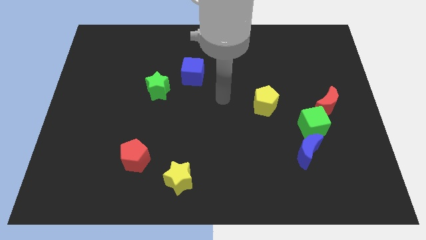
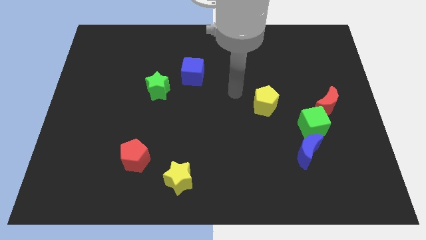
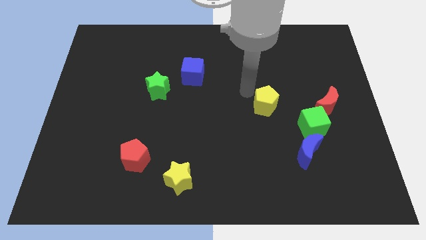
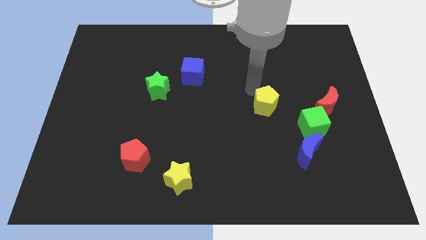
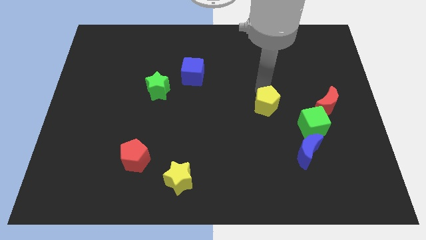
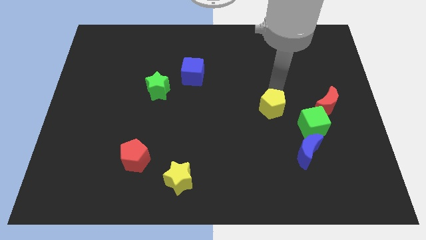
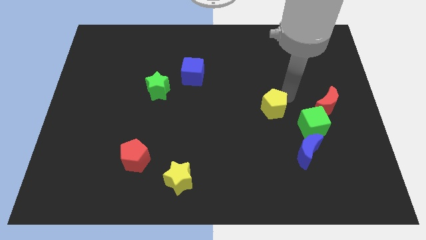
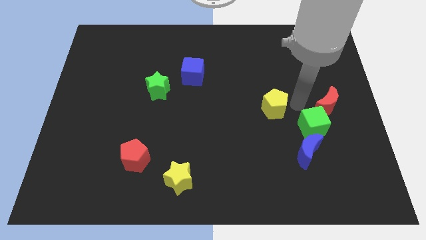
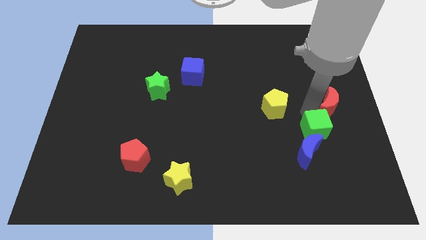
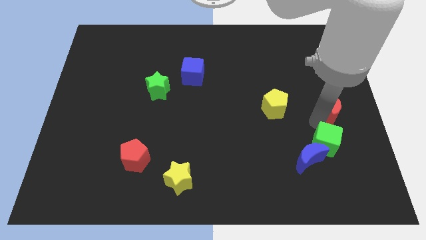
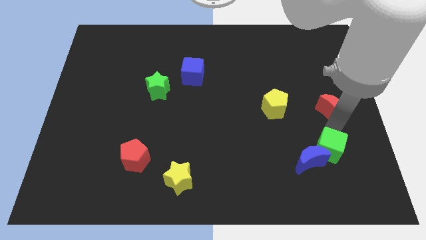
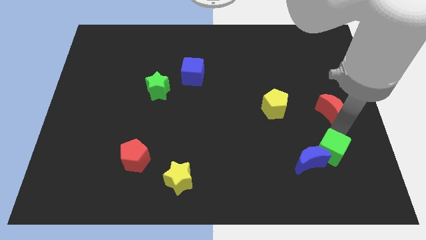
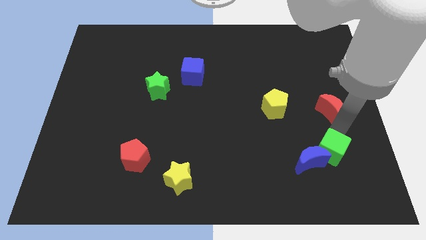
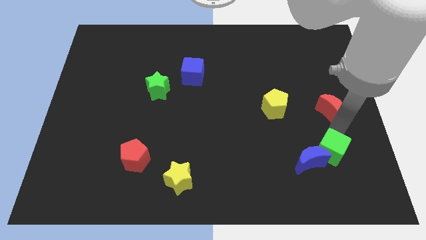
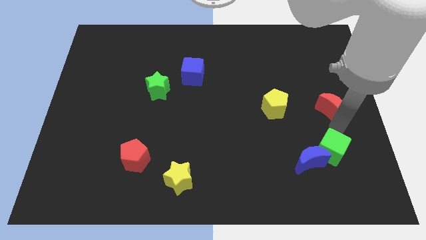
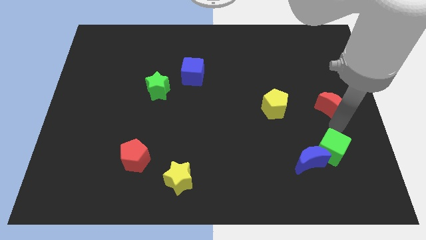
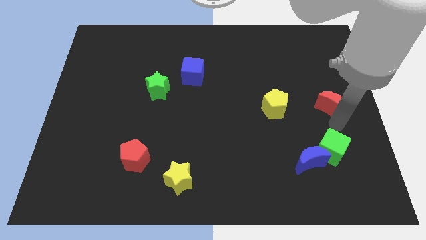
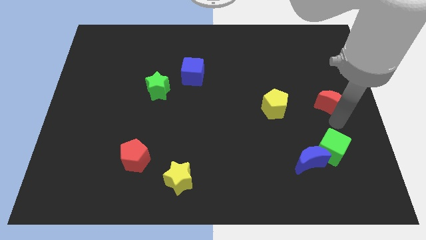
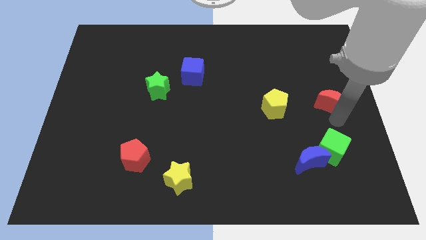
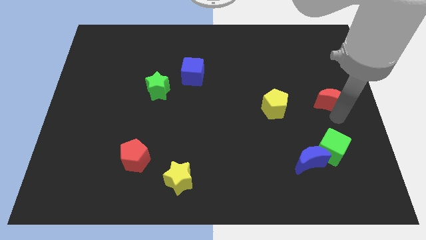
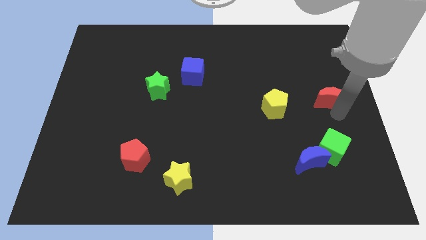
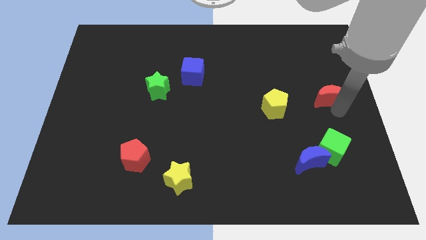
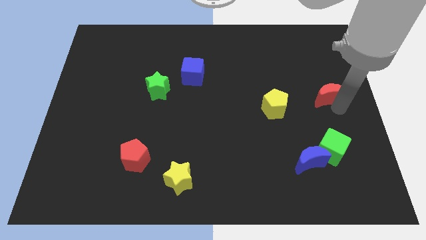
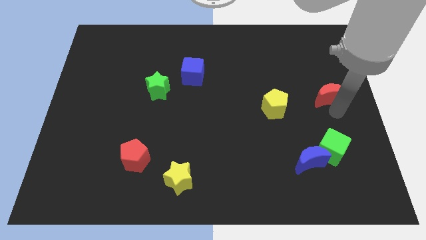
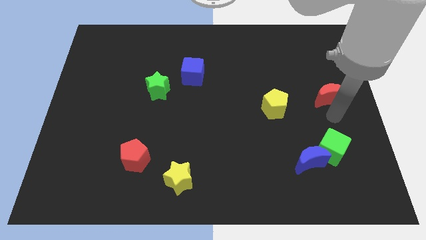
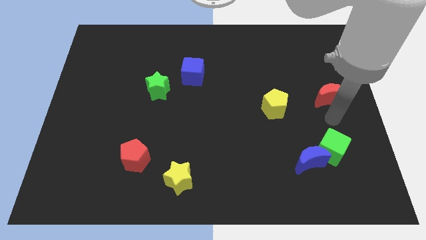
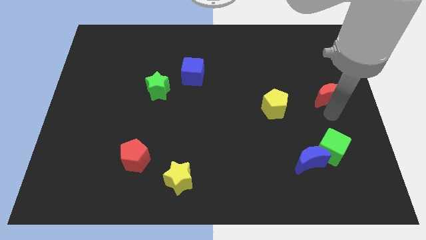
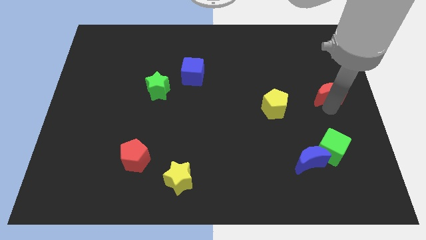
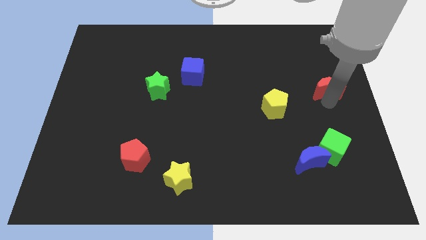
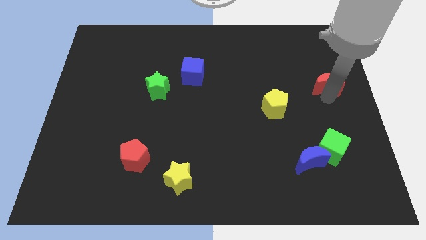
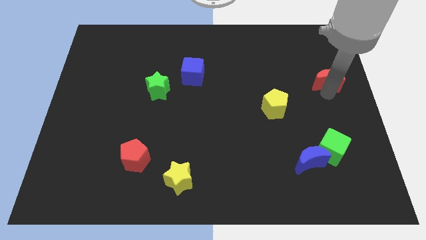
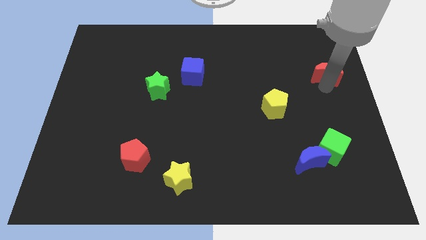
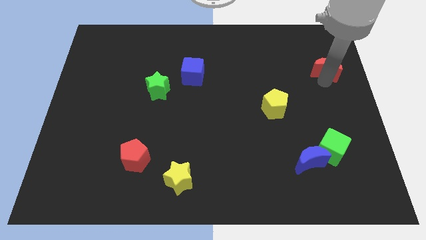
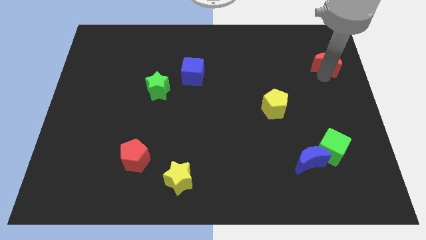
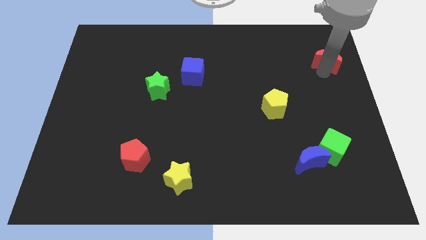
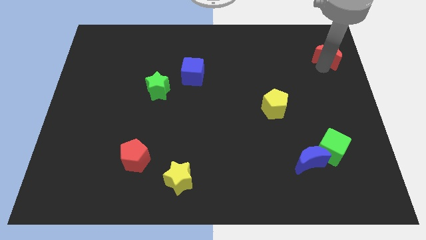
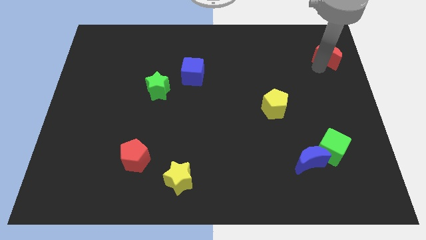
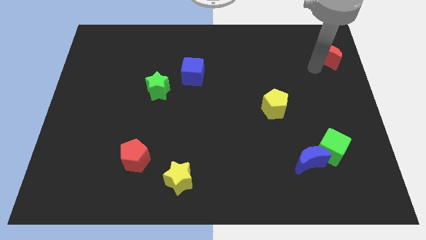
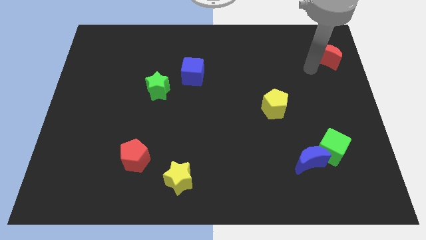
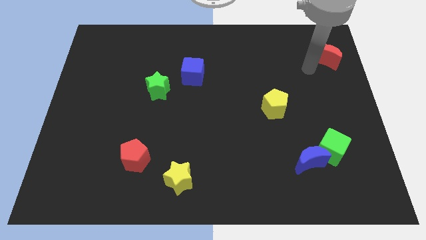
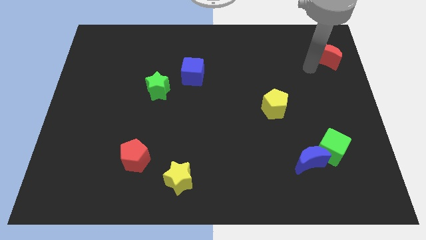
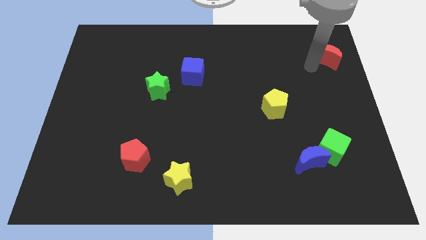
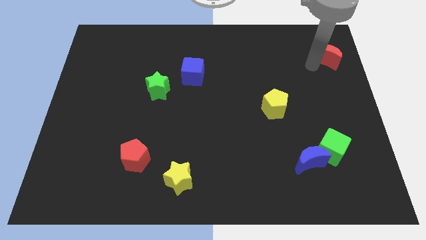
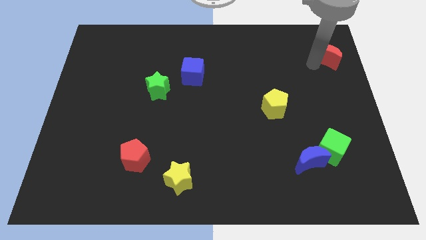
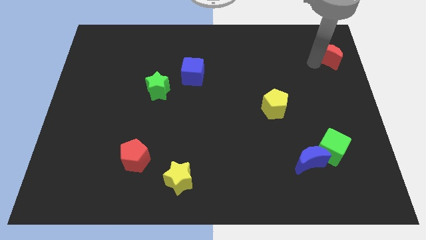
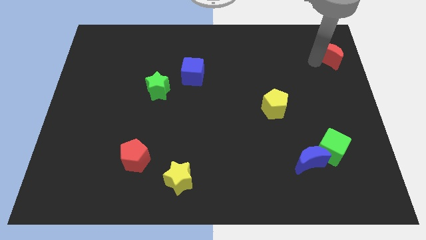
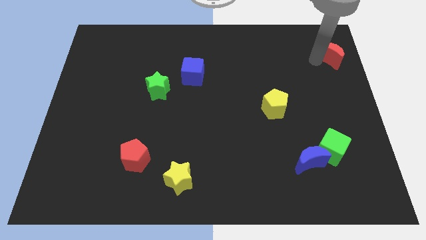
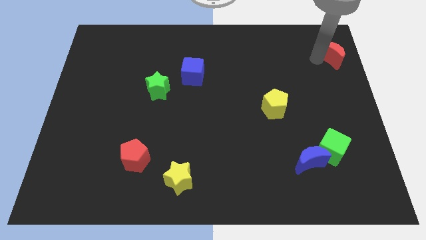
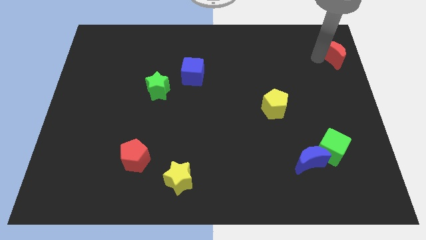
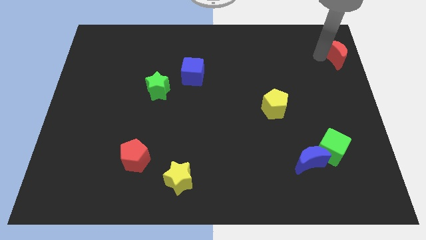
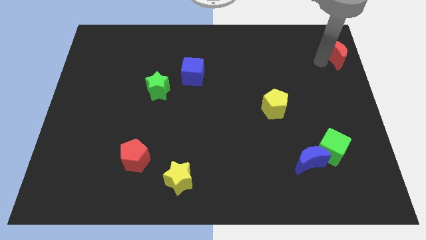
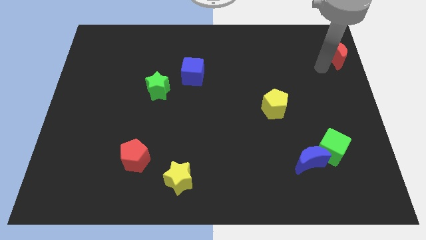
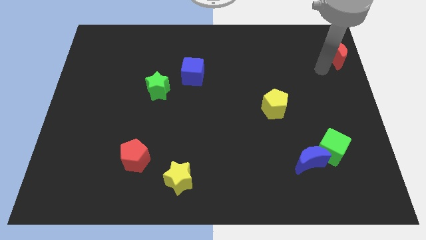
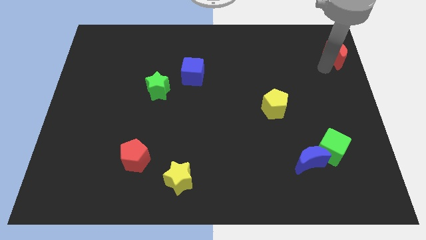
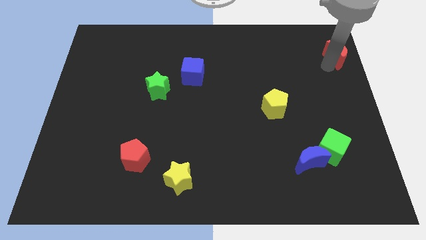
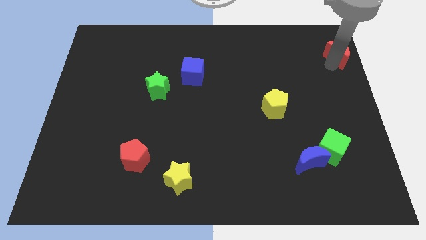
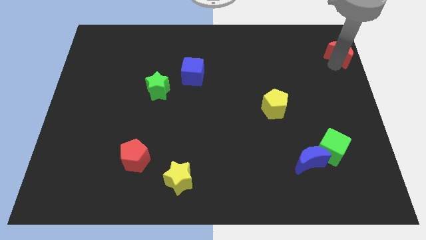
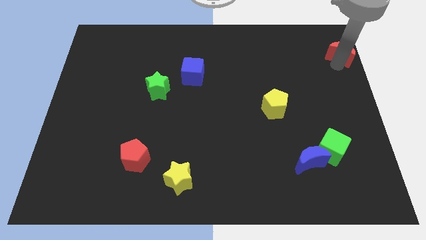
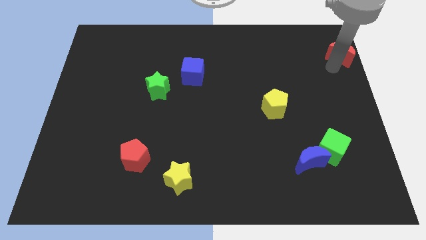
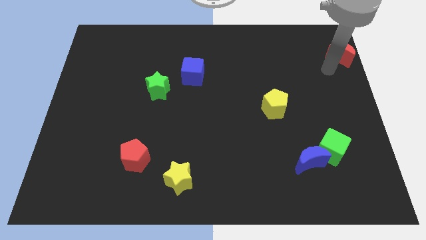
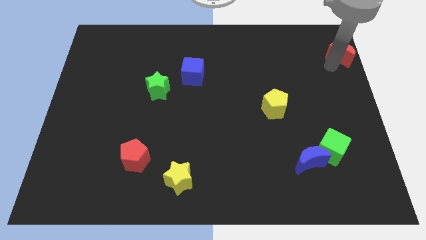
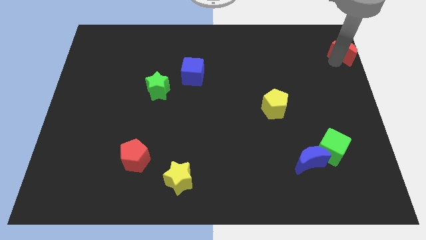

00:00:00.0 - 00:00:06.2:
push the red moon to the top right

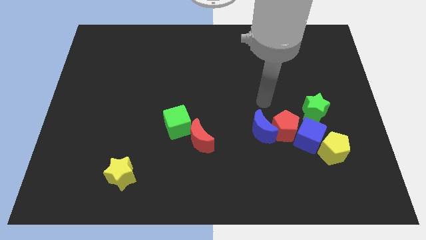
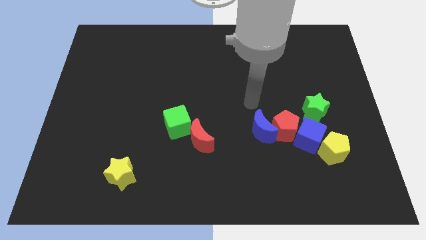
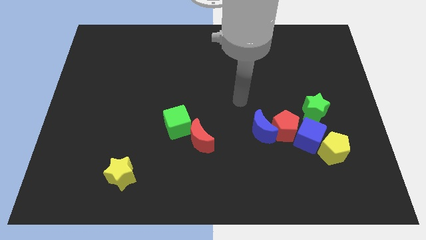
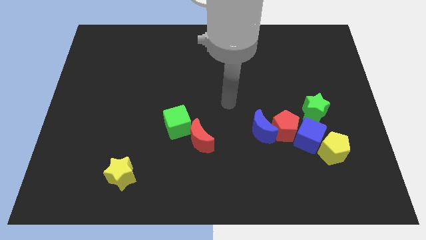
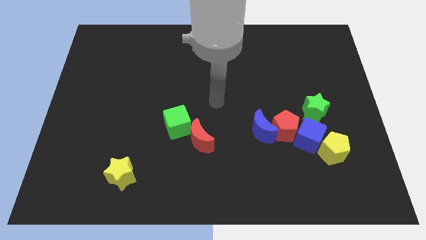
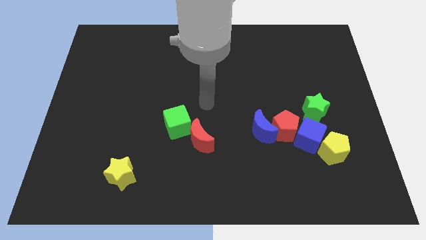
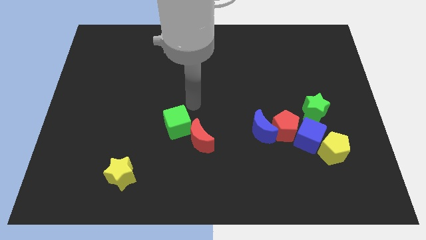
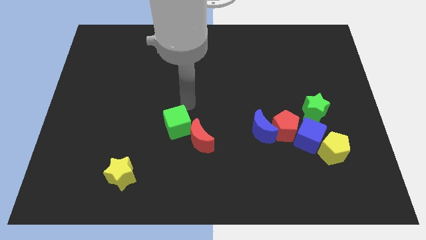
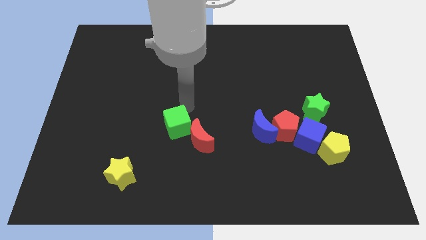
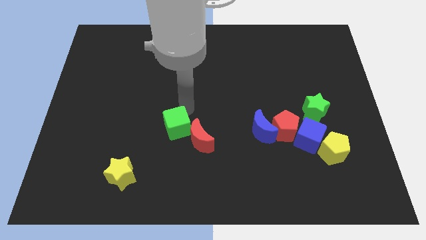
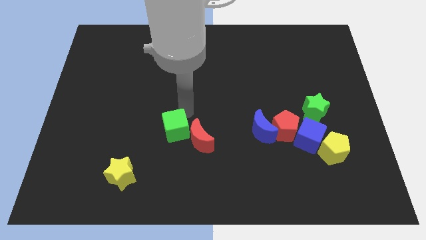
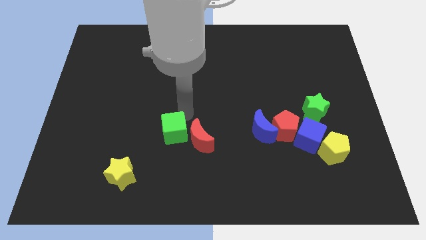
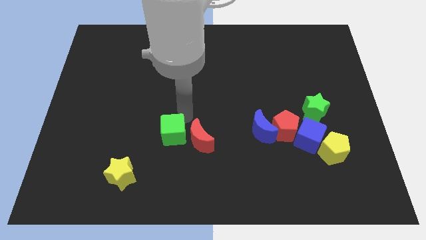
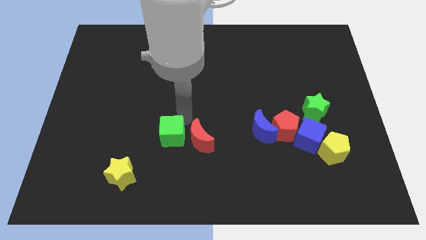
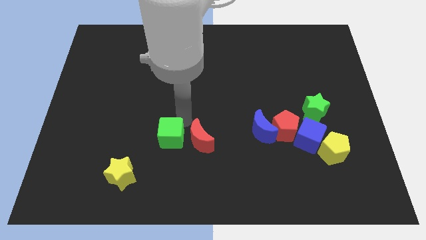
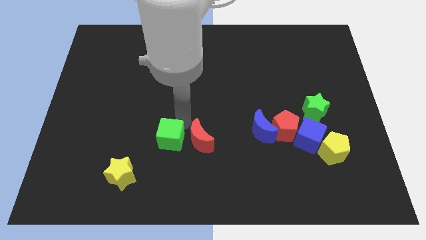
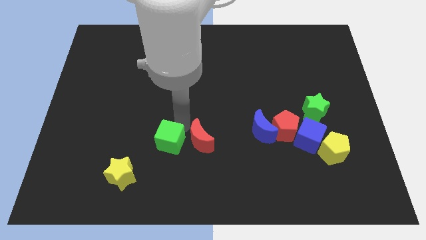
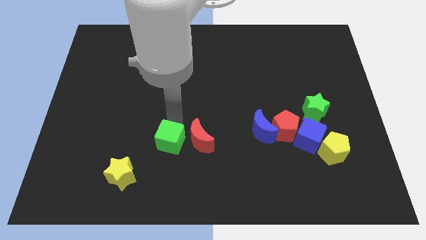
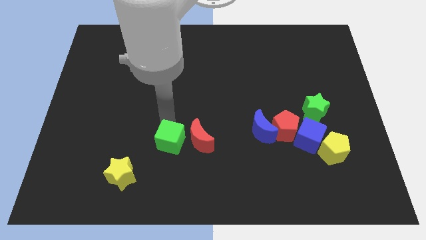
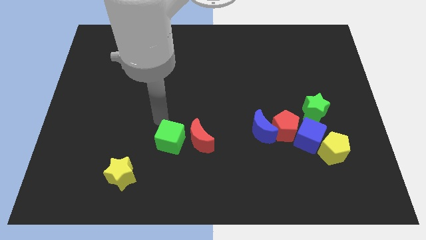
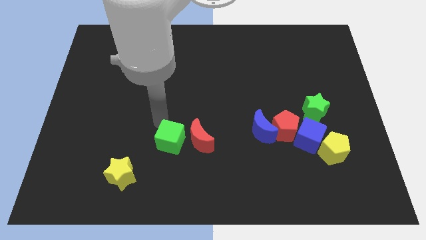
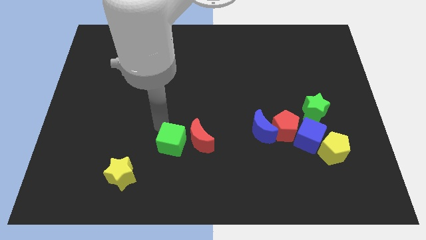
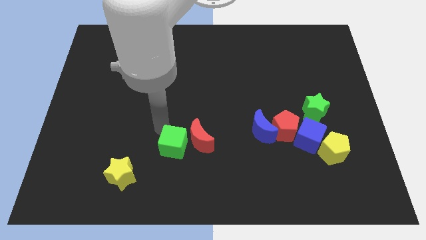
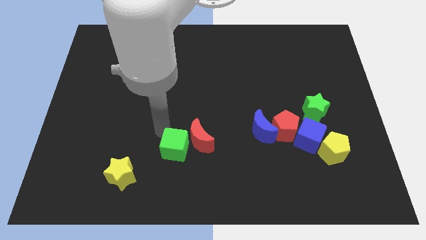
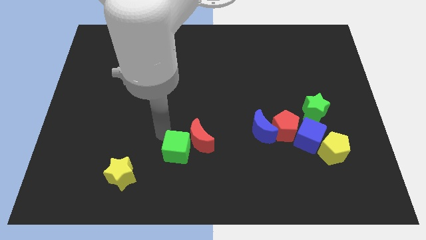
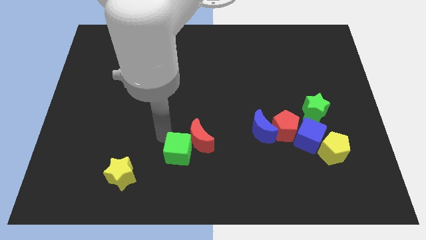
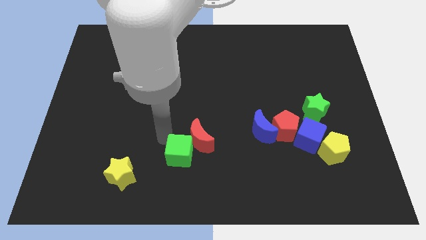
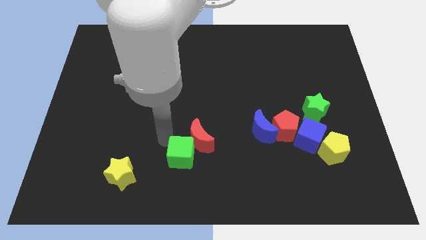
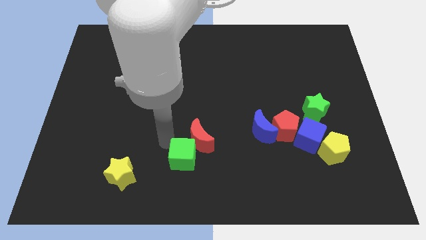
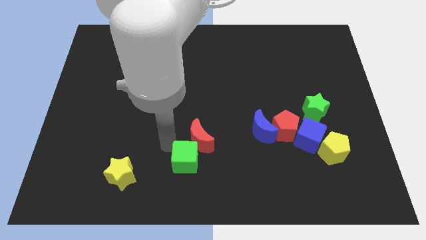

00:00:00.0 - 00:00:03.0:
slide the green cube to the bottom
